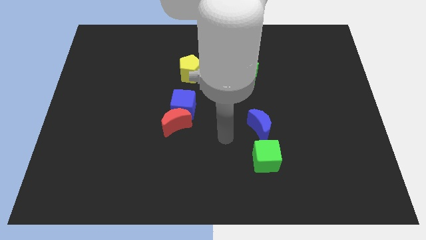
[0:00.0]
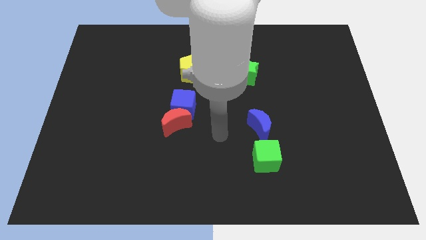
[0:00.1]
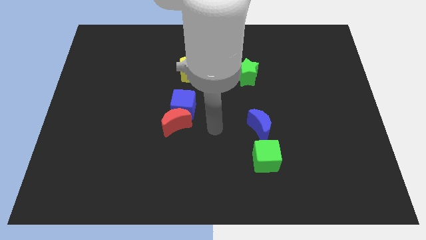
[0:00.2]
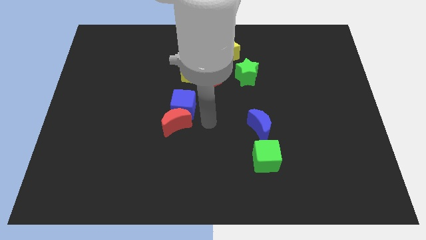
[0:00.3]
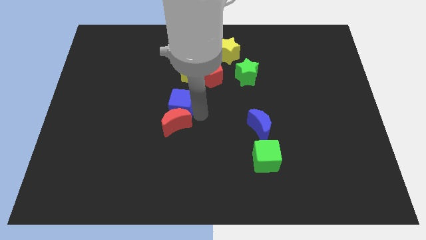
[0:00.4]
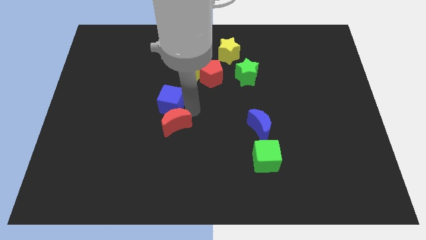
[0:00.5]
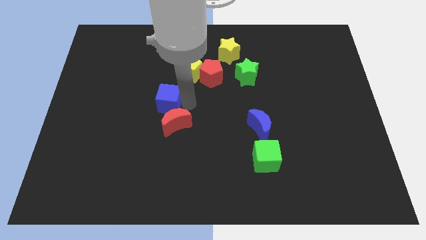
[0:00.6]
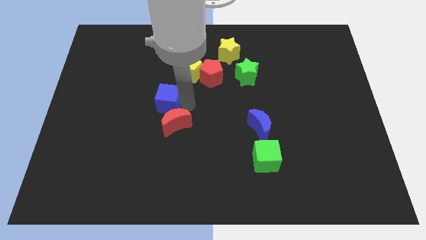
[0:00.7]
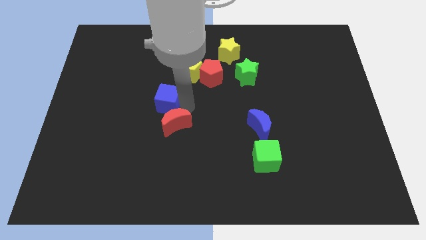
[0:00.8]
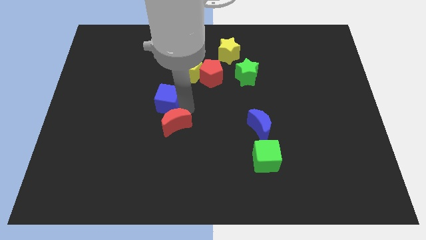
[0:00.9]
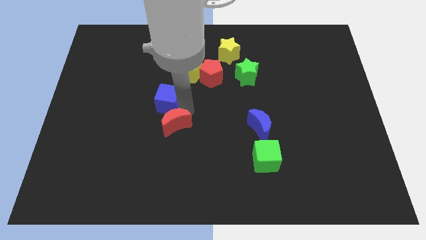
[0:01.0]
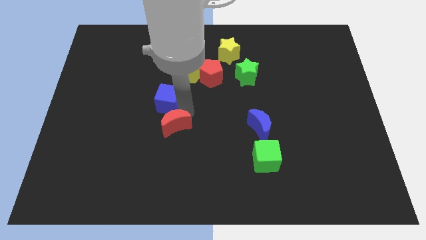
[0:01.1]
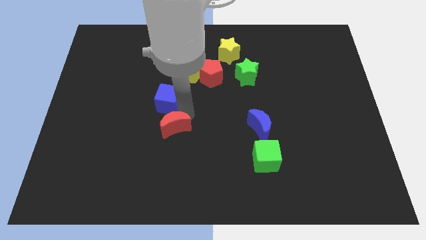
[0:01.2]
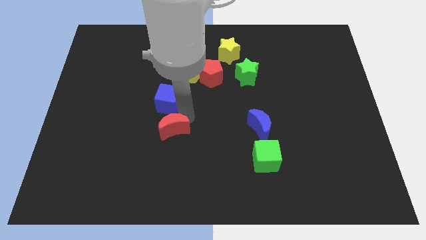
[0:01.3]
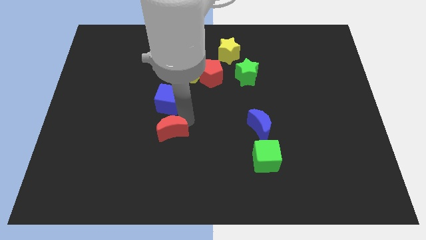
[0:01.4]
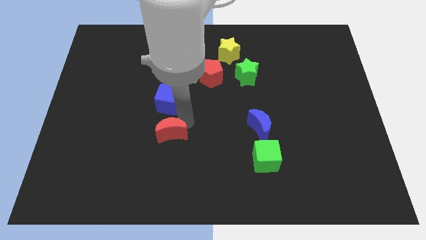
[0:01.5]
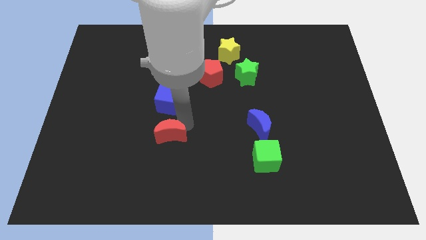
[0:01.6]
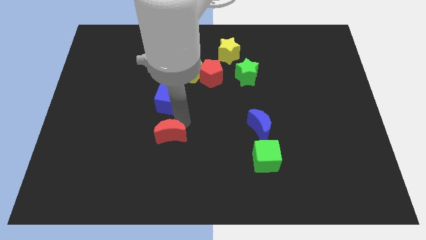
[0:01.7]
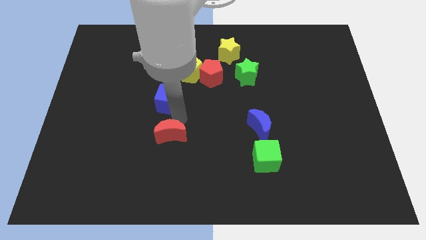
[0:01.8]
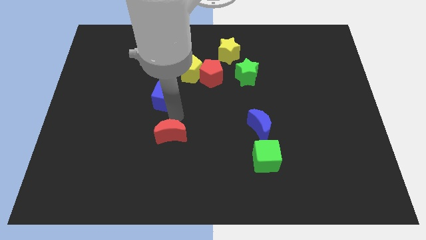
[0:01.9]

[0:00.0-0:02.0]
separate the red moon from the blue cube

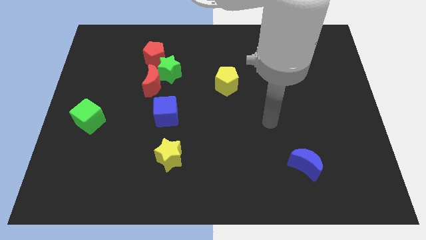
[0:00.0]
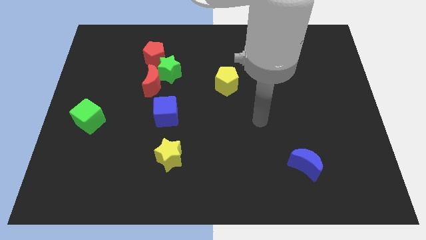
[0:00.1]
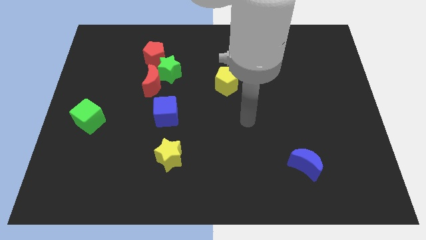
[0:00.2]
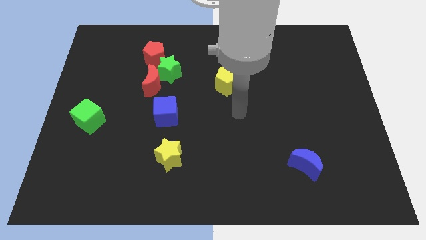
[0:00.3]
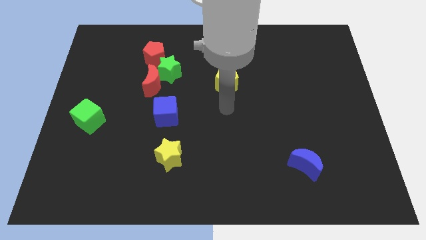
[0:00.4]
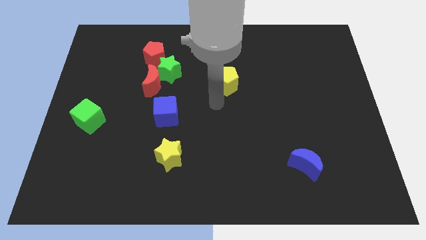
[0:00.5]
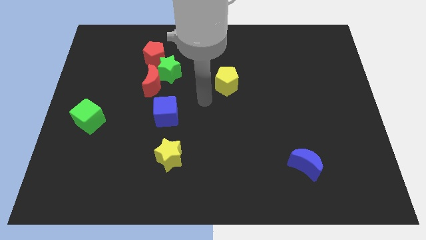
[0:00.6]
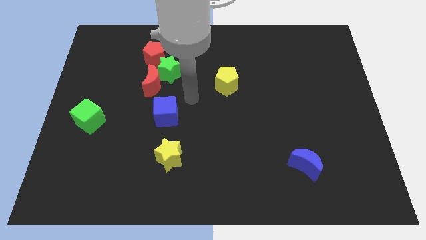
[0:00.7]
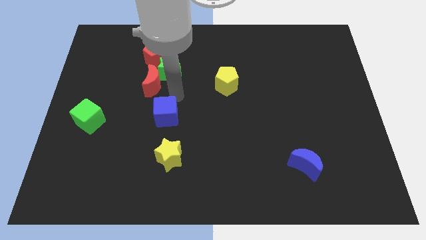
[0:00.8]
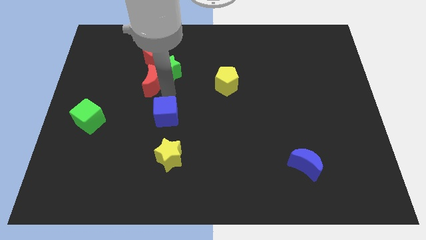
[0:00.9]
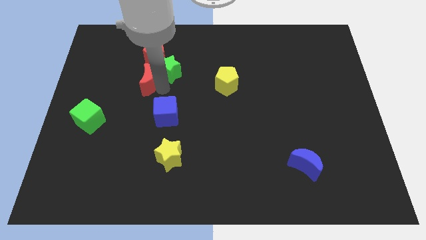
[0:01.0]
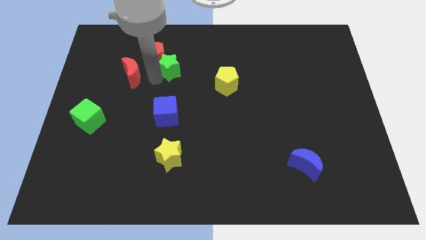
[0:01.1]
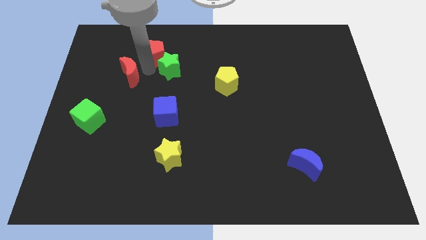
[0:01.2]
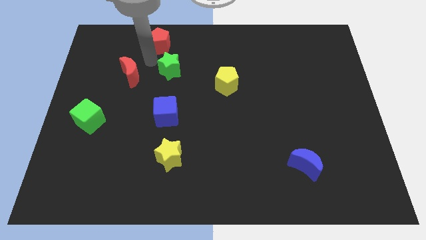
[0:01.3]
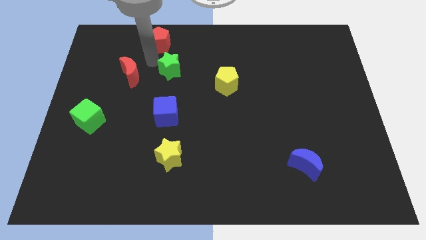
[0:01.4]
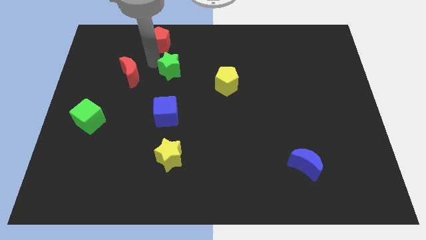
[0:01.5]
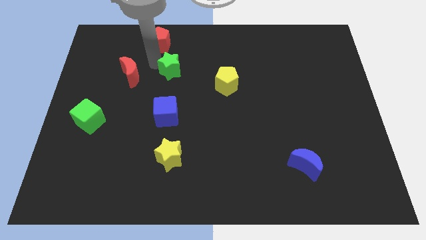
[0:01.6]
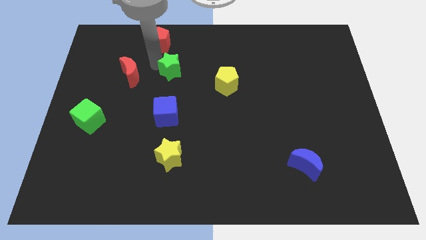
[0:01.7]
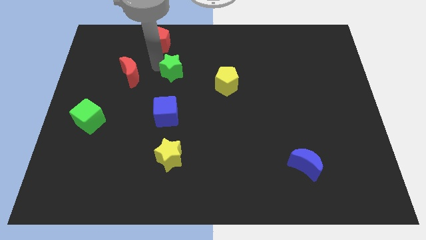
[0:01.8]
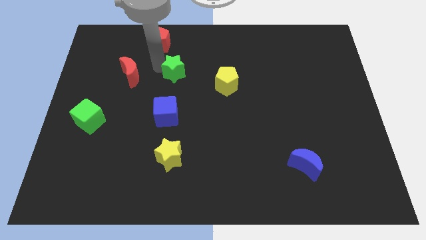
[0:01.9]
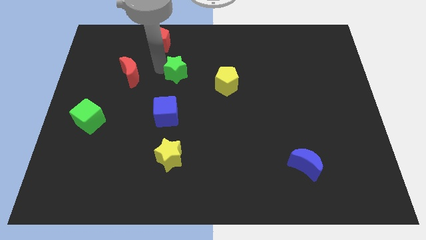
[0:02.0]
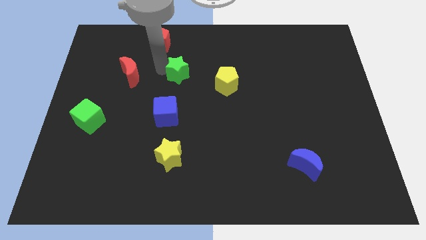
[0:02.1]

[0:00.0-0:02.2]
pull the green star apart from the red moon and red pentagon

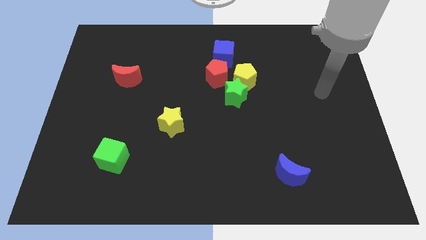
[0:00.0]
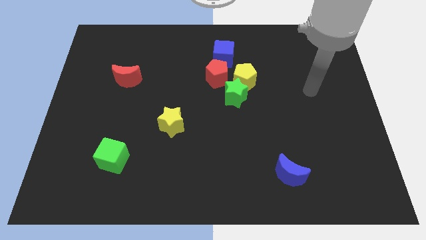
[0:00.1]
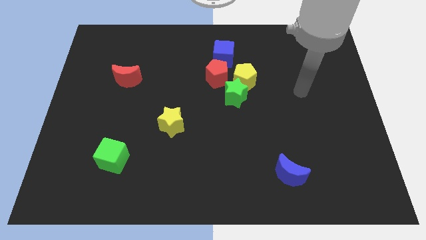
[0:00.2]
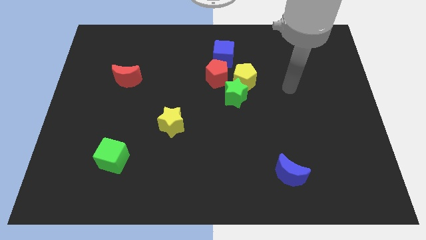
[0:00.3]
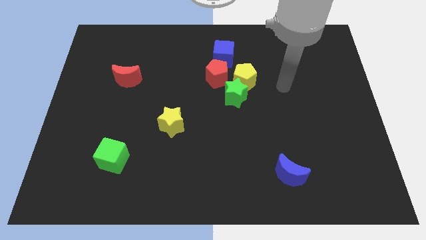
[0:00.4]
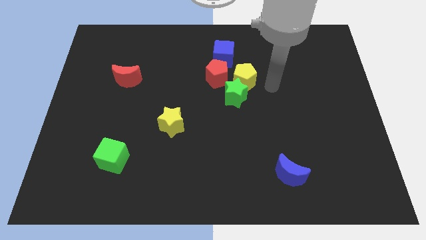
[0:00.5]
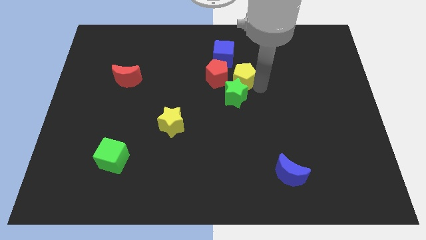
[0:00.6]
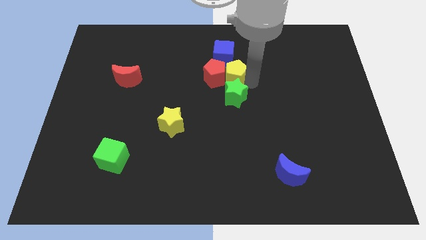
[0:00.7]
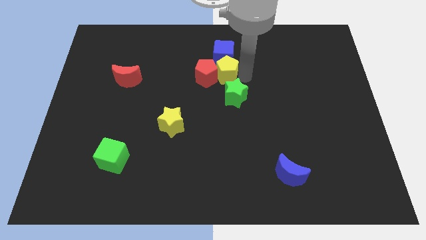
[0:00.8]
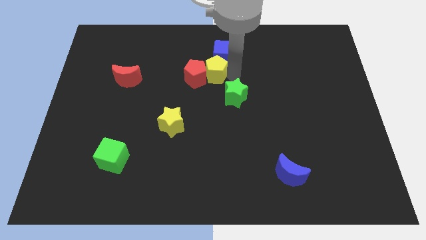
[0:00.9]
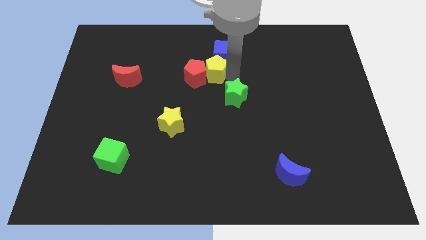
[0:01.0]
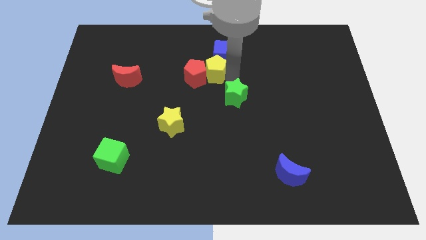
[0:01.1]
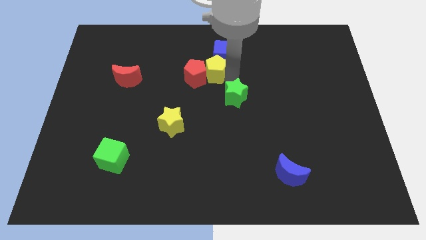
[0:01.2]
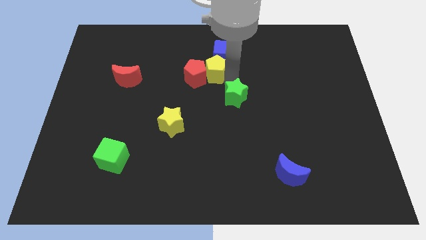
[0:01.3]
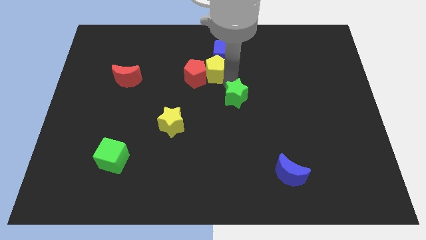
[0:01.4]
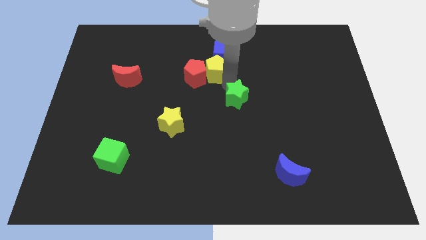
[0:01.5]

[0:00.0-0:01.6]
pull the green star apart from the yellow pentagon and red pentagon

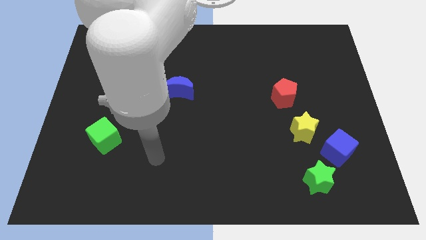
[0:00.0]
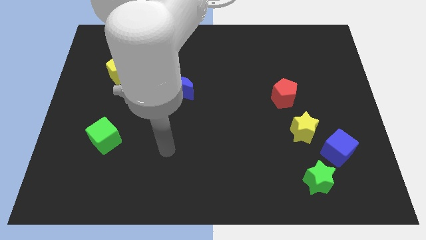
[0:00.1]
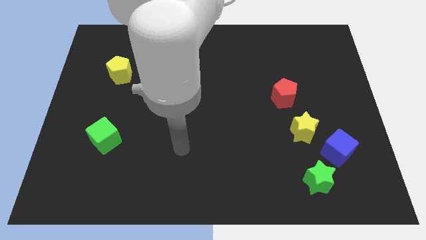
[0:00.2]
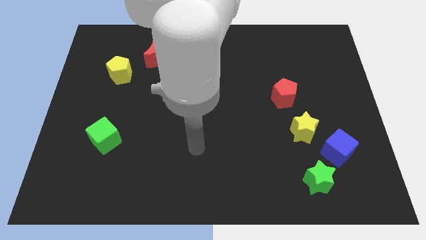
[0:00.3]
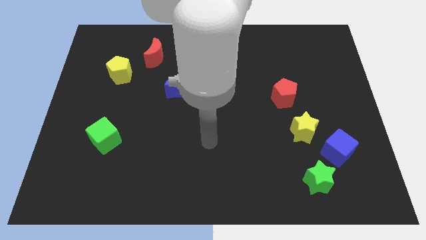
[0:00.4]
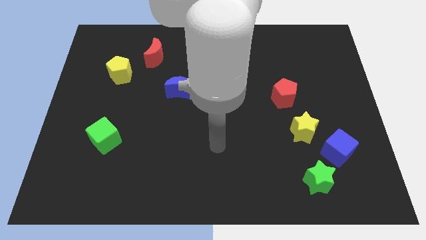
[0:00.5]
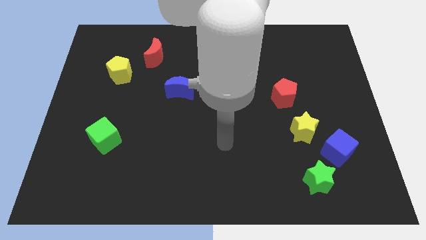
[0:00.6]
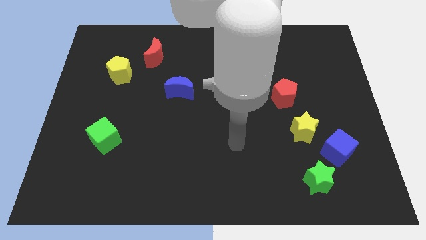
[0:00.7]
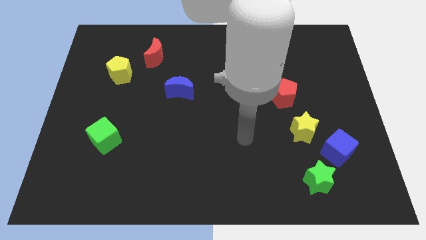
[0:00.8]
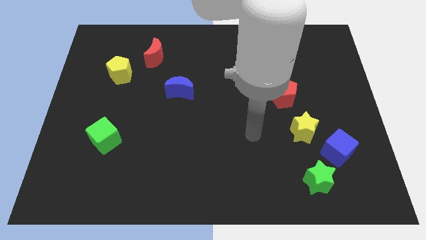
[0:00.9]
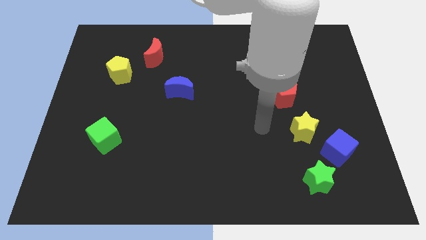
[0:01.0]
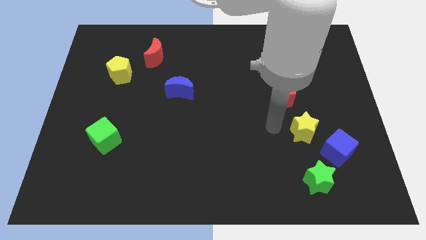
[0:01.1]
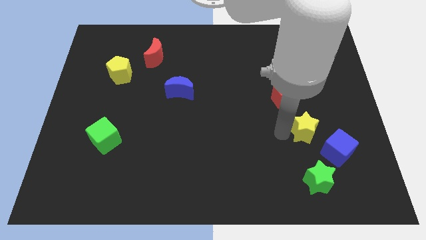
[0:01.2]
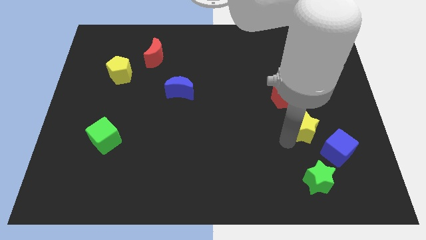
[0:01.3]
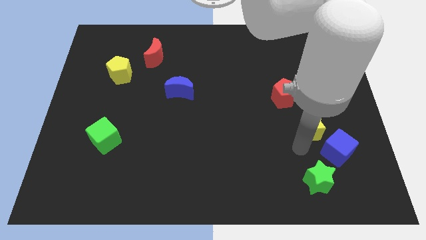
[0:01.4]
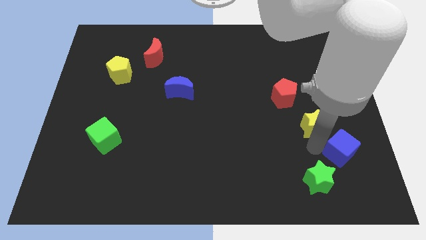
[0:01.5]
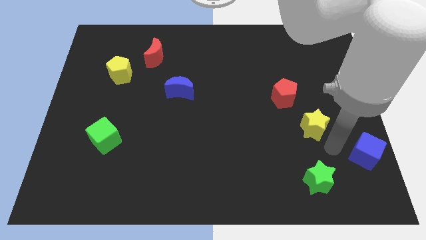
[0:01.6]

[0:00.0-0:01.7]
move the yellow star away from the blue cube

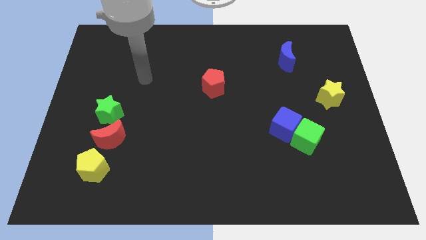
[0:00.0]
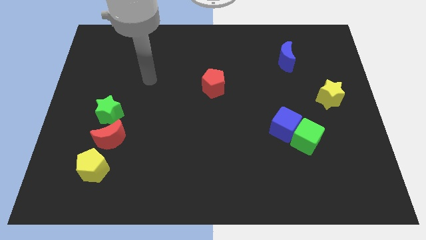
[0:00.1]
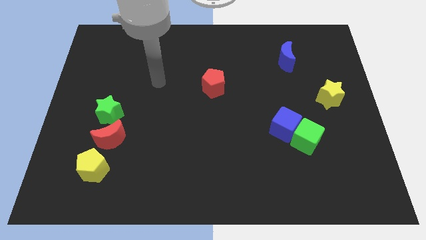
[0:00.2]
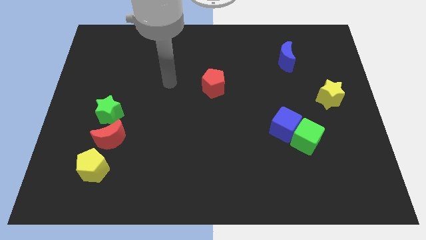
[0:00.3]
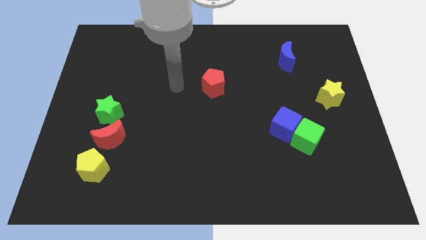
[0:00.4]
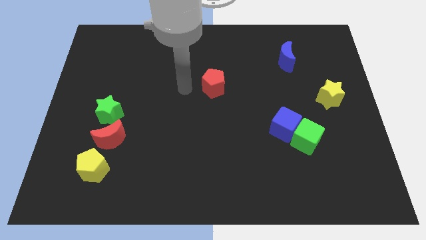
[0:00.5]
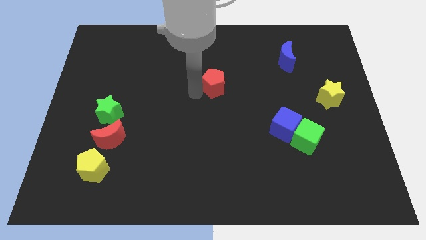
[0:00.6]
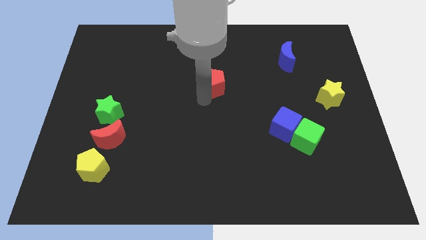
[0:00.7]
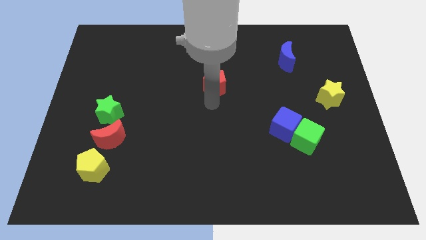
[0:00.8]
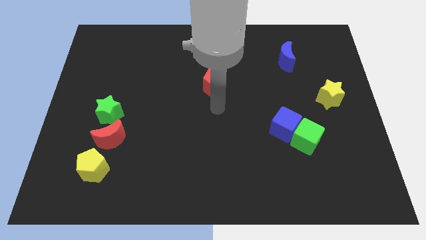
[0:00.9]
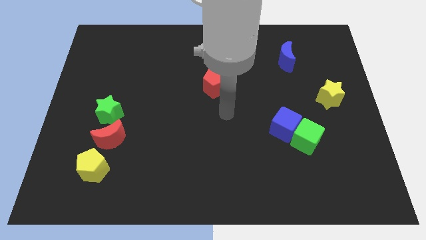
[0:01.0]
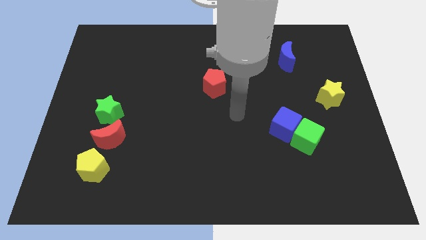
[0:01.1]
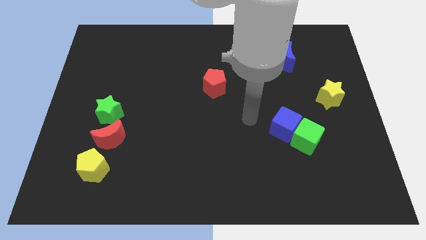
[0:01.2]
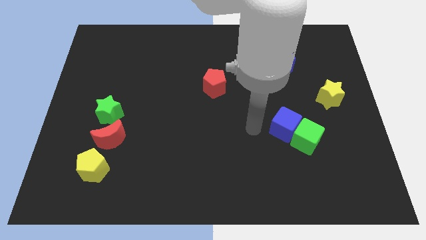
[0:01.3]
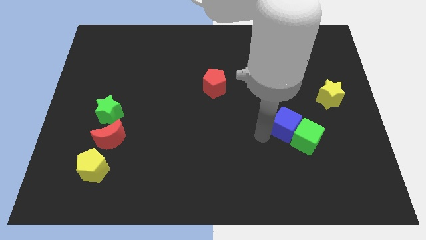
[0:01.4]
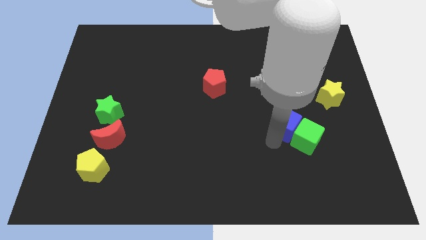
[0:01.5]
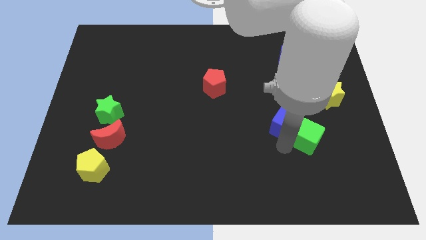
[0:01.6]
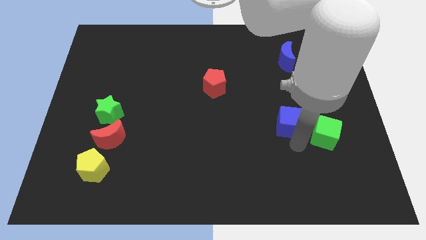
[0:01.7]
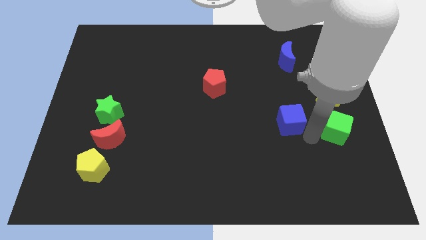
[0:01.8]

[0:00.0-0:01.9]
move the blue cube away from the green cube

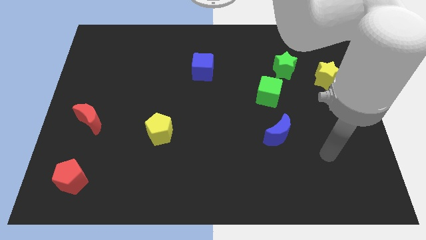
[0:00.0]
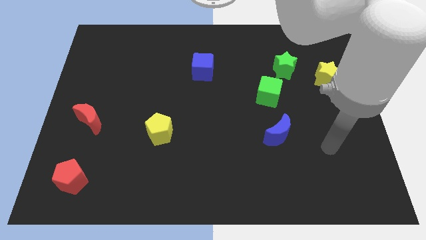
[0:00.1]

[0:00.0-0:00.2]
move the green cube away from the green star
